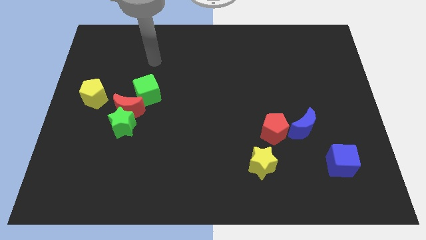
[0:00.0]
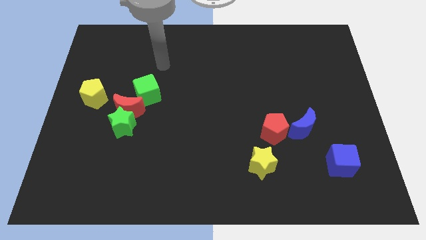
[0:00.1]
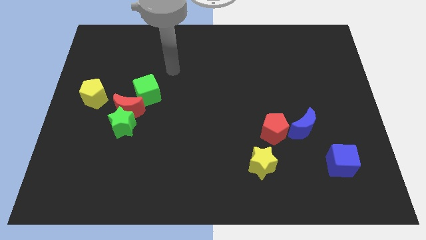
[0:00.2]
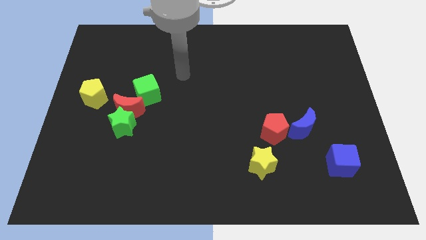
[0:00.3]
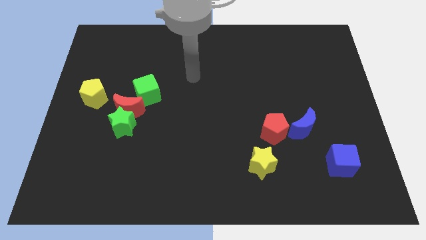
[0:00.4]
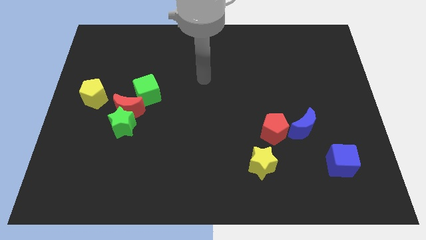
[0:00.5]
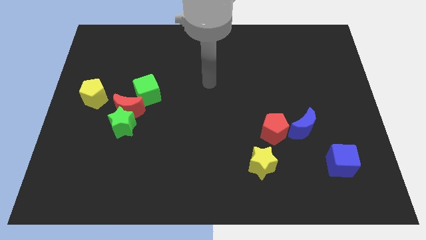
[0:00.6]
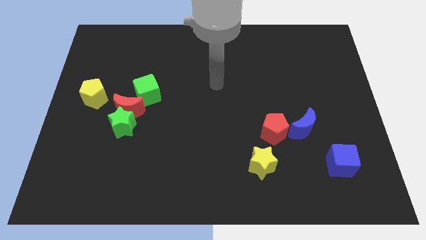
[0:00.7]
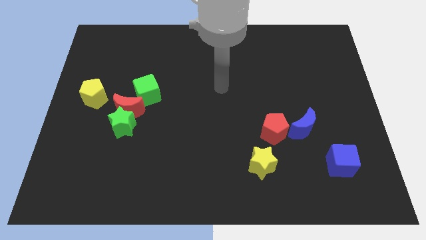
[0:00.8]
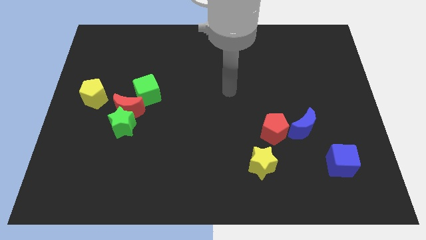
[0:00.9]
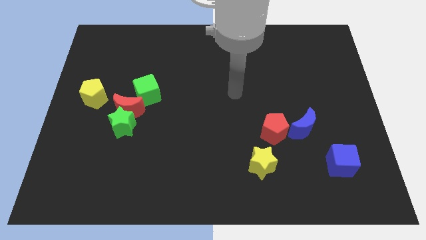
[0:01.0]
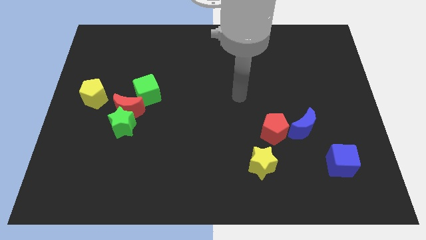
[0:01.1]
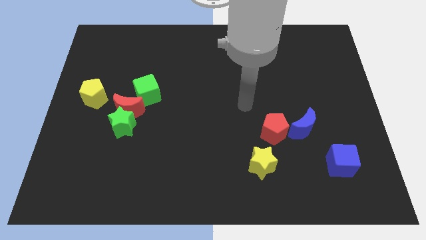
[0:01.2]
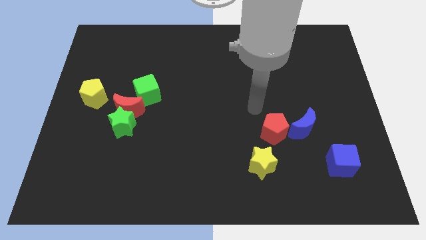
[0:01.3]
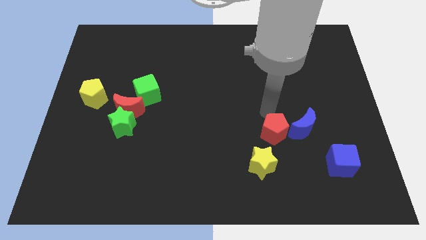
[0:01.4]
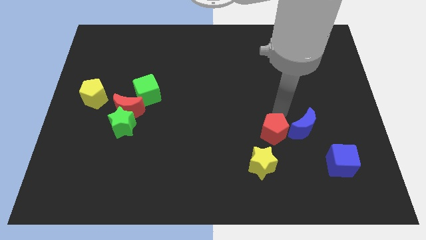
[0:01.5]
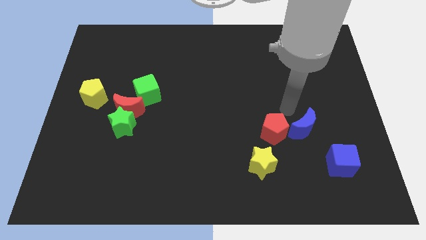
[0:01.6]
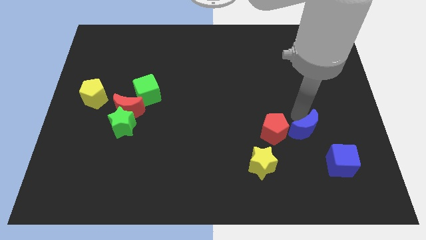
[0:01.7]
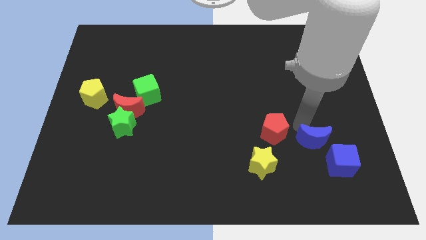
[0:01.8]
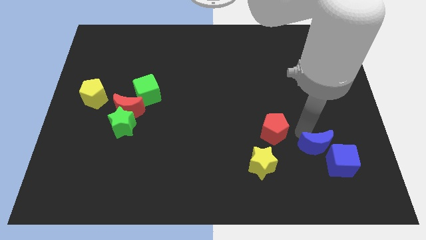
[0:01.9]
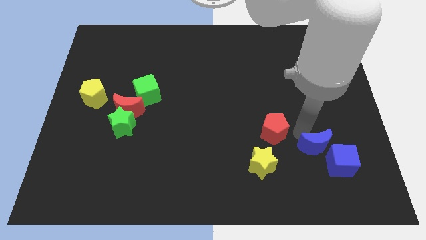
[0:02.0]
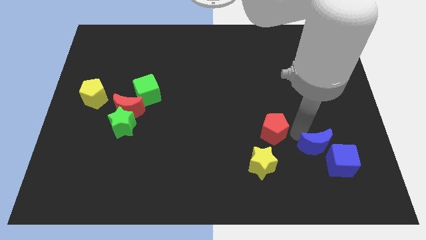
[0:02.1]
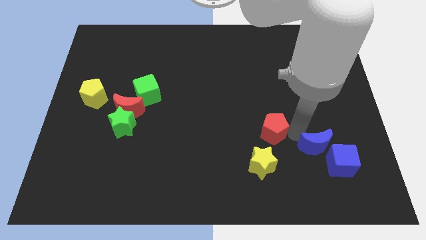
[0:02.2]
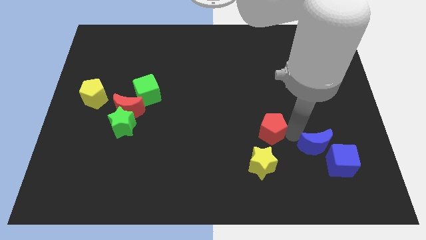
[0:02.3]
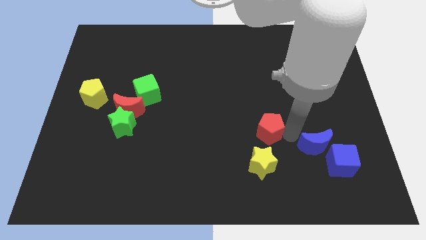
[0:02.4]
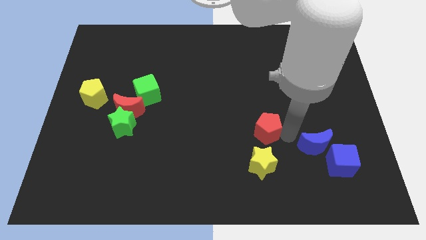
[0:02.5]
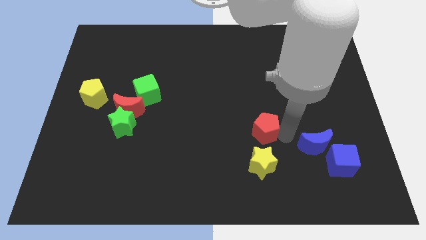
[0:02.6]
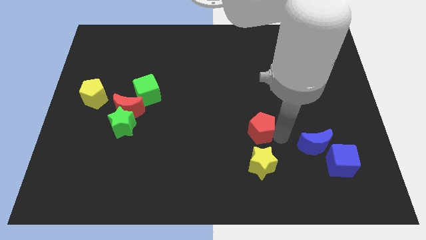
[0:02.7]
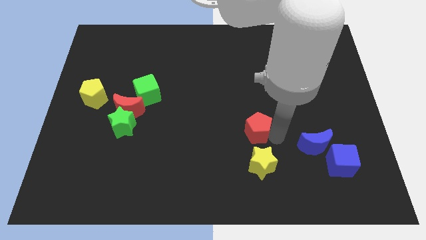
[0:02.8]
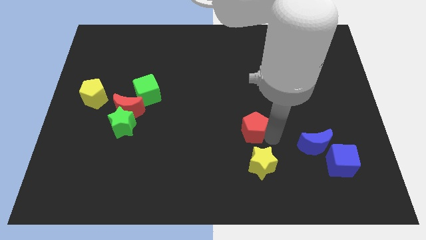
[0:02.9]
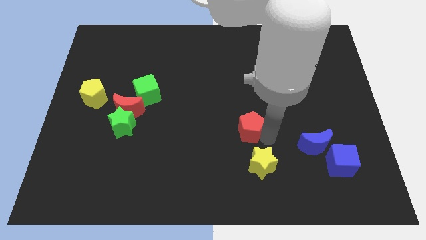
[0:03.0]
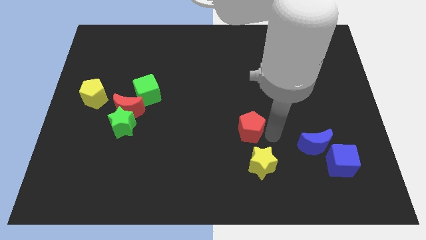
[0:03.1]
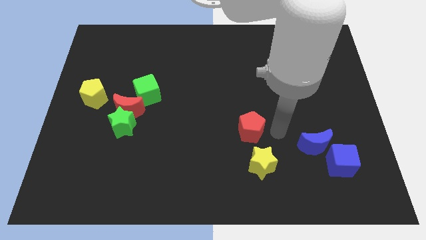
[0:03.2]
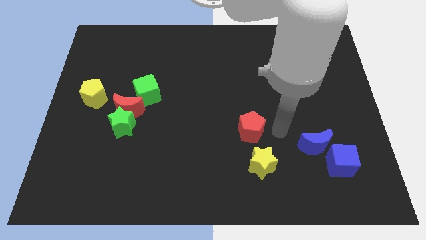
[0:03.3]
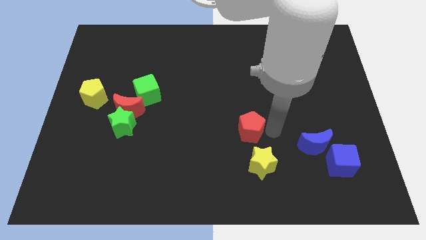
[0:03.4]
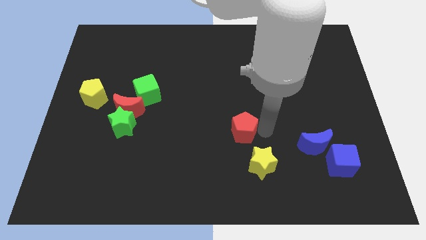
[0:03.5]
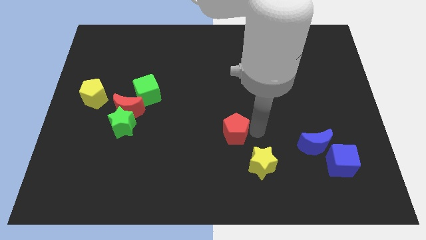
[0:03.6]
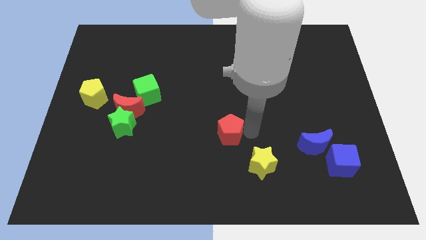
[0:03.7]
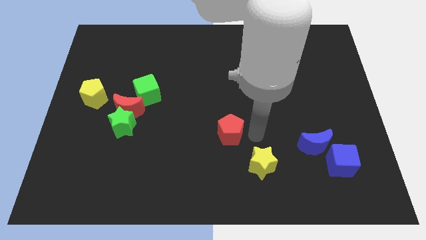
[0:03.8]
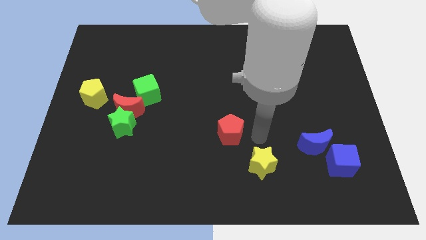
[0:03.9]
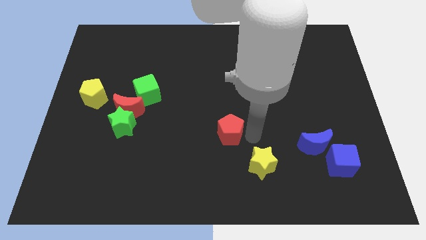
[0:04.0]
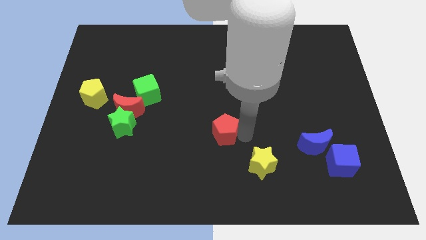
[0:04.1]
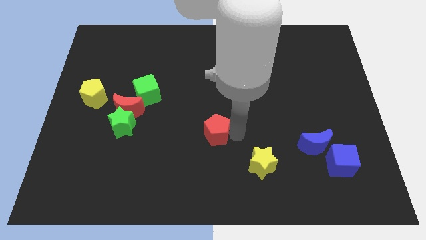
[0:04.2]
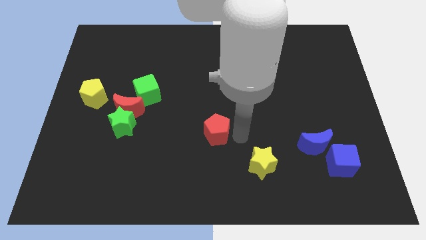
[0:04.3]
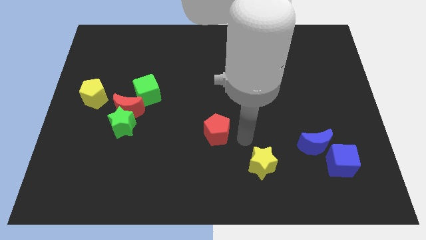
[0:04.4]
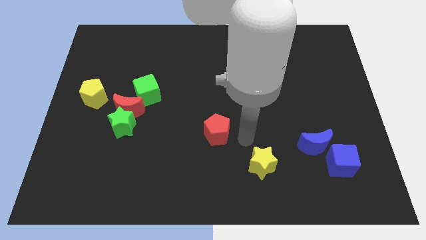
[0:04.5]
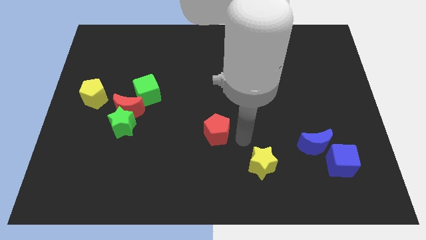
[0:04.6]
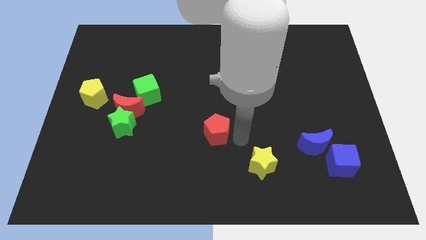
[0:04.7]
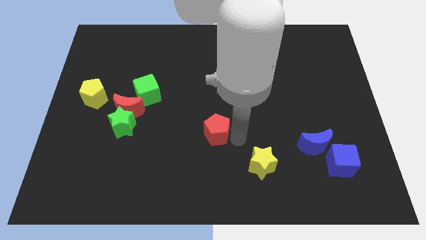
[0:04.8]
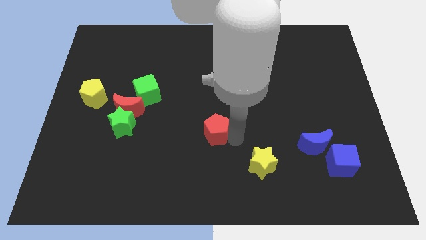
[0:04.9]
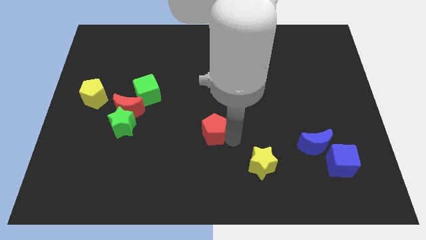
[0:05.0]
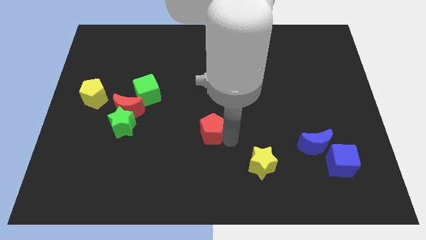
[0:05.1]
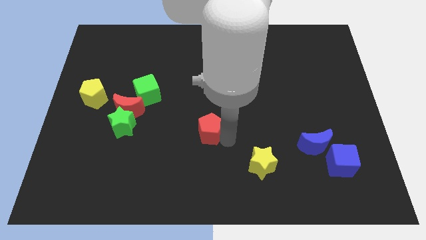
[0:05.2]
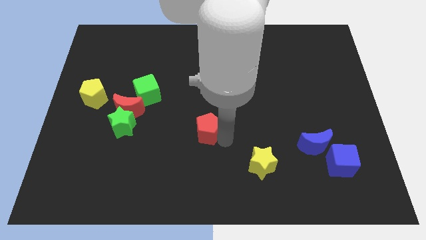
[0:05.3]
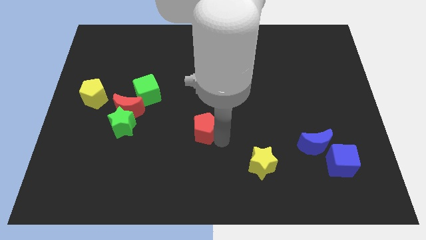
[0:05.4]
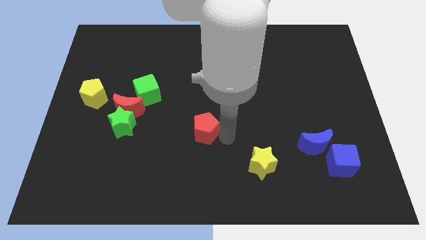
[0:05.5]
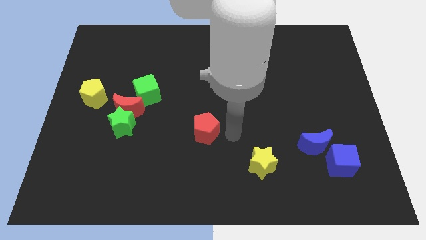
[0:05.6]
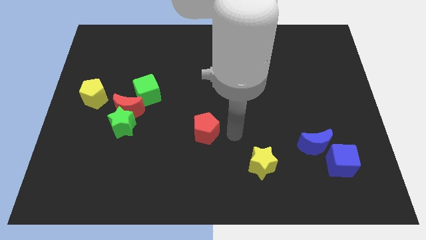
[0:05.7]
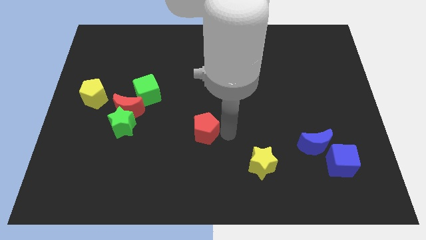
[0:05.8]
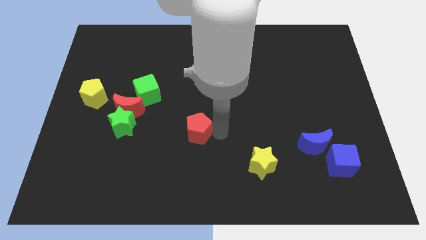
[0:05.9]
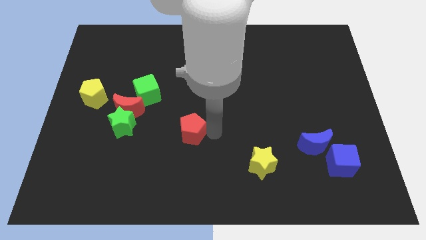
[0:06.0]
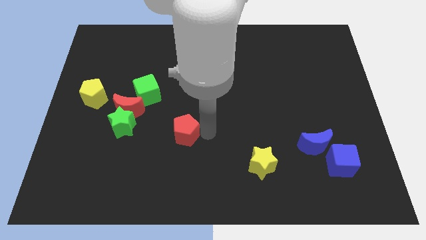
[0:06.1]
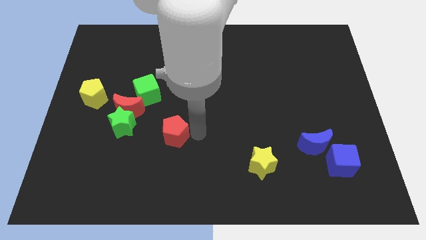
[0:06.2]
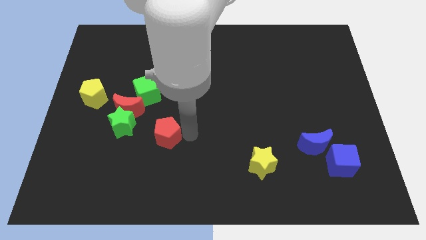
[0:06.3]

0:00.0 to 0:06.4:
move the red pentagon to the bottom right of the red moon

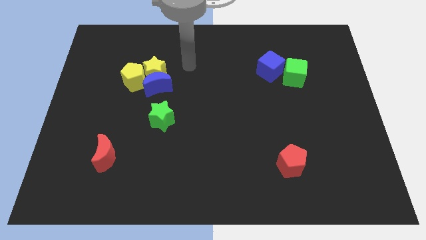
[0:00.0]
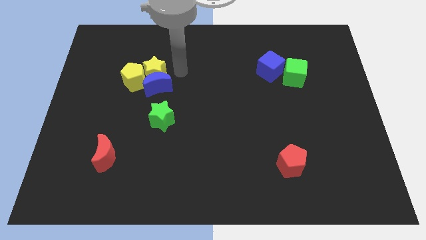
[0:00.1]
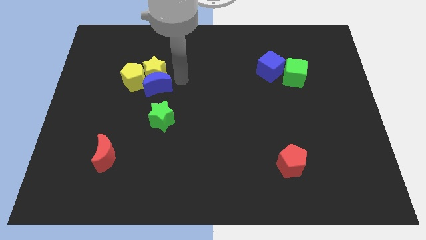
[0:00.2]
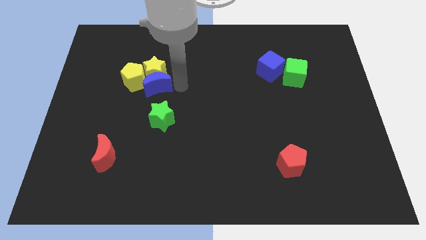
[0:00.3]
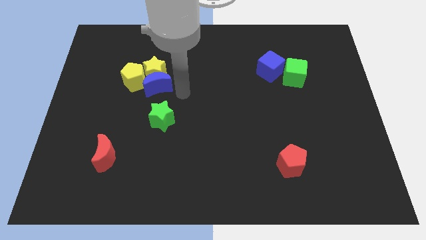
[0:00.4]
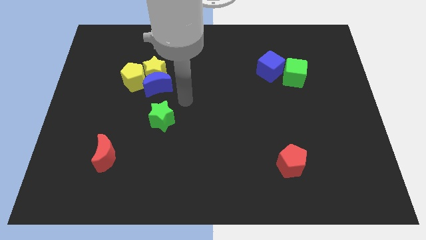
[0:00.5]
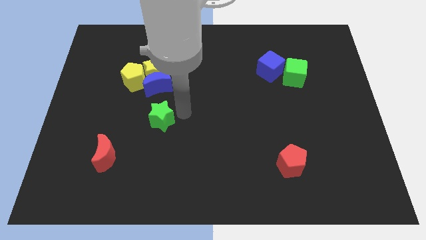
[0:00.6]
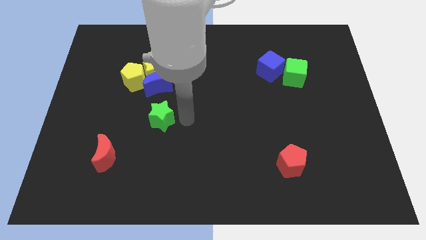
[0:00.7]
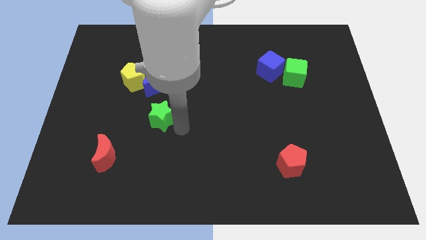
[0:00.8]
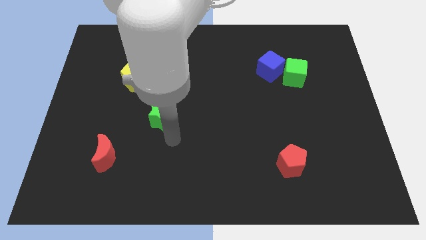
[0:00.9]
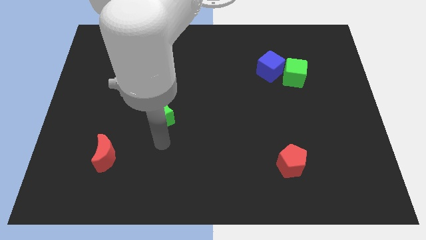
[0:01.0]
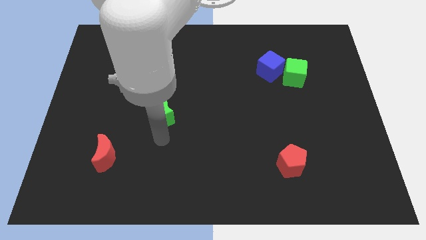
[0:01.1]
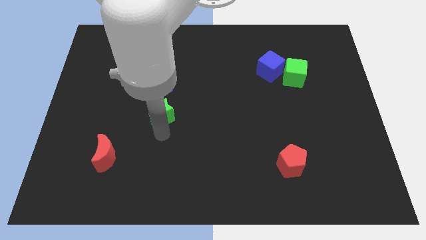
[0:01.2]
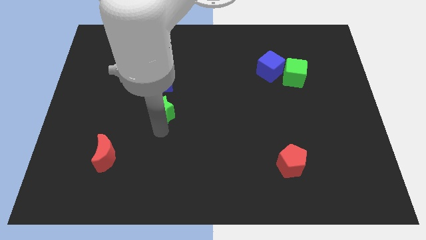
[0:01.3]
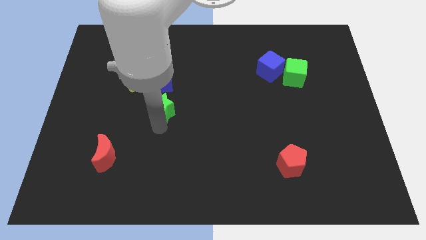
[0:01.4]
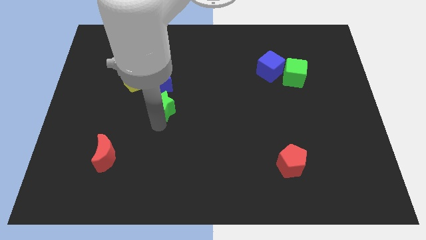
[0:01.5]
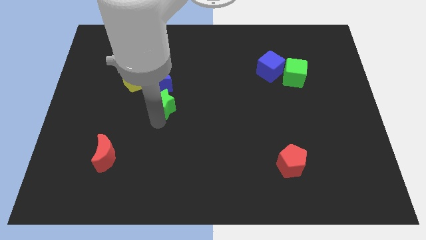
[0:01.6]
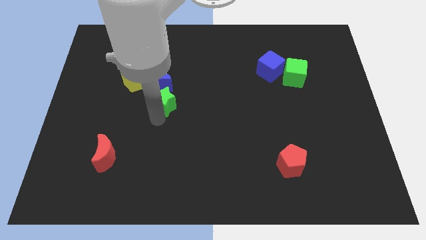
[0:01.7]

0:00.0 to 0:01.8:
move the green star to the bottom right of the yellow star

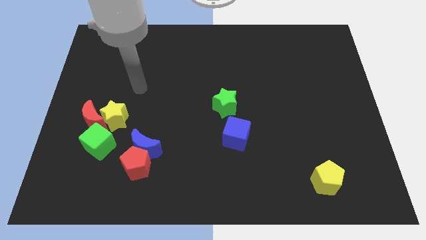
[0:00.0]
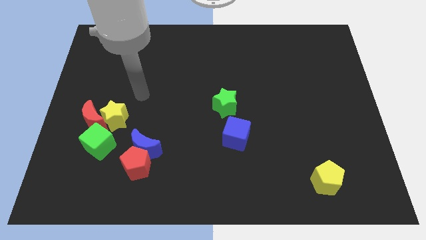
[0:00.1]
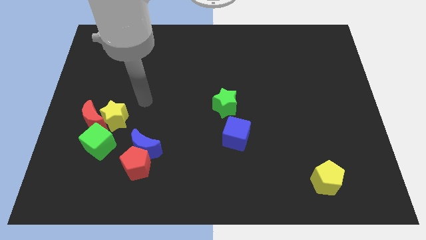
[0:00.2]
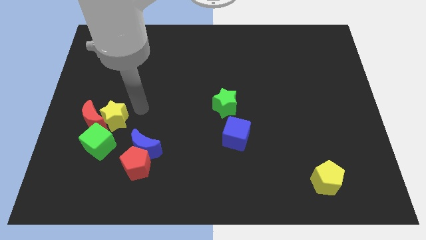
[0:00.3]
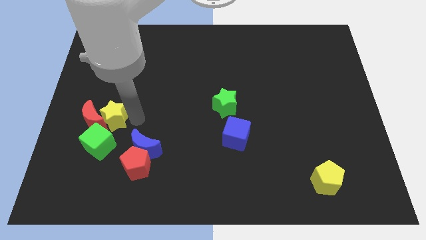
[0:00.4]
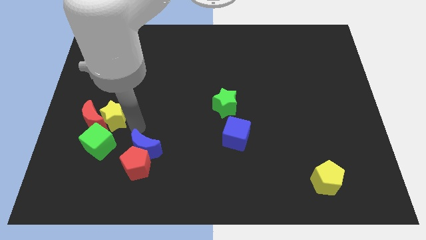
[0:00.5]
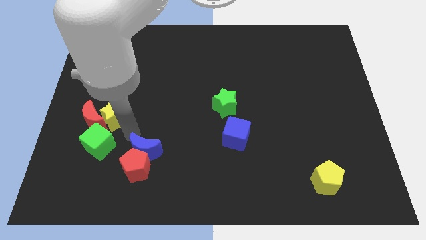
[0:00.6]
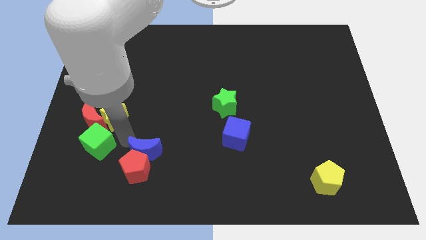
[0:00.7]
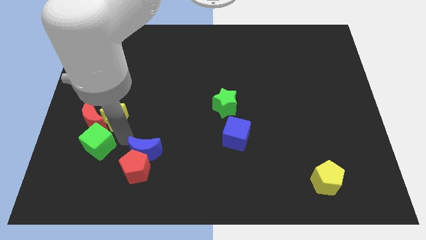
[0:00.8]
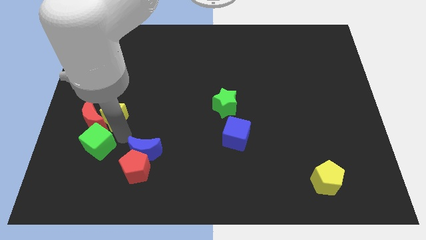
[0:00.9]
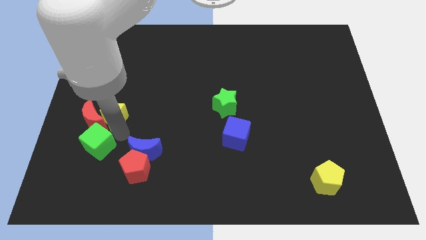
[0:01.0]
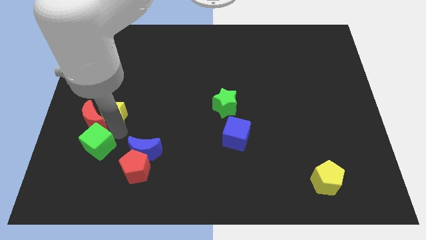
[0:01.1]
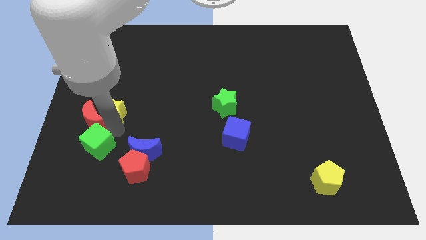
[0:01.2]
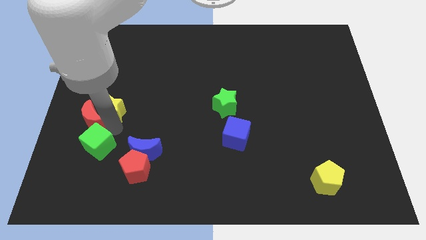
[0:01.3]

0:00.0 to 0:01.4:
move the yellow star above the red moon
